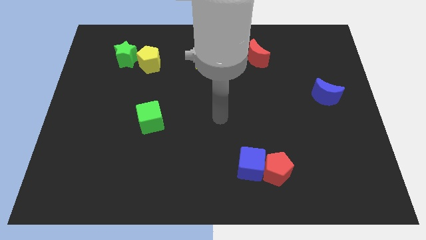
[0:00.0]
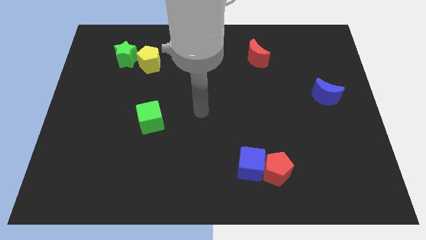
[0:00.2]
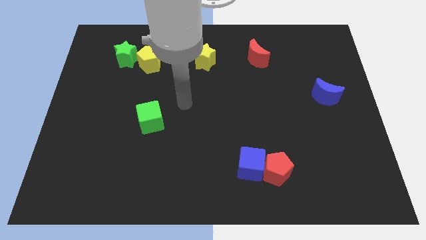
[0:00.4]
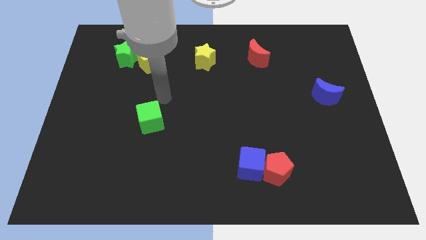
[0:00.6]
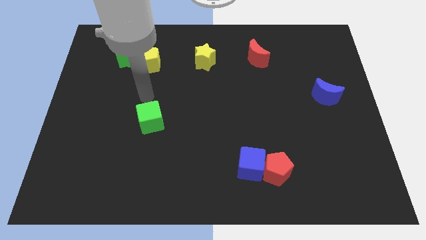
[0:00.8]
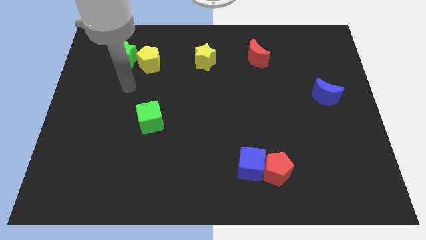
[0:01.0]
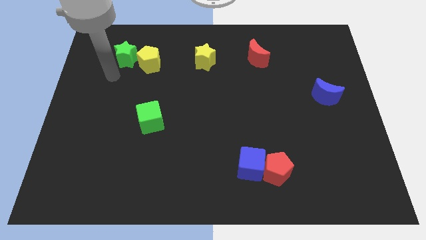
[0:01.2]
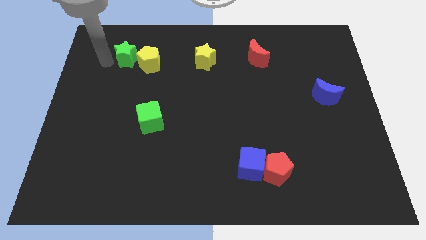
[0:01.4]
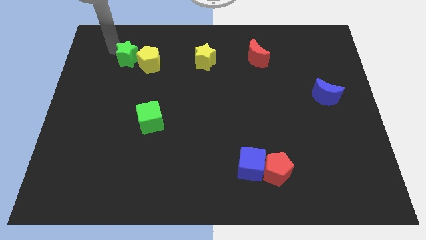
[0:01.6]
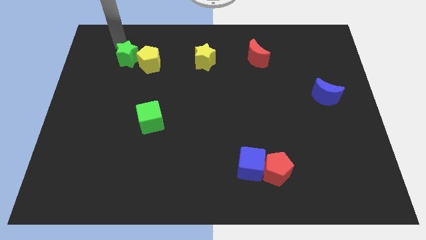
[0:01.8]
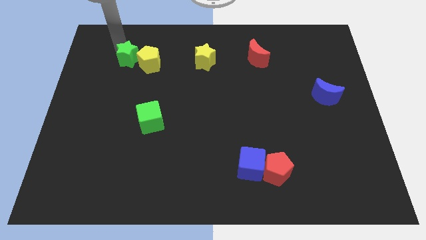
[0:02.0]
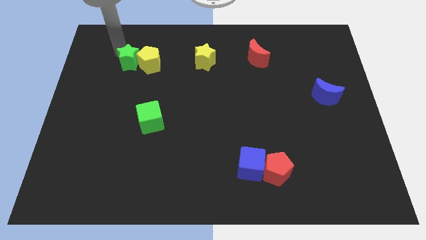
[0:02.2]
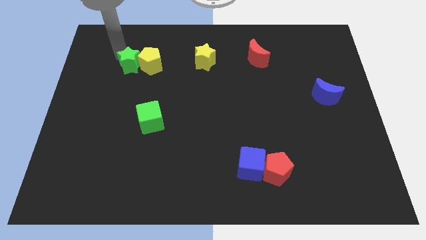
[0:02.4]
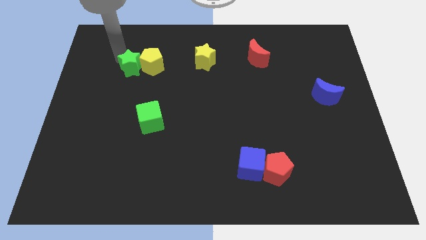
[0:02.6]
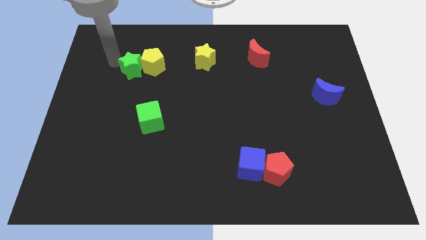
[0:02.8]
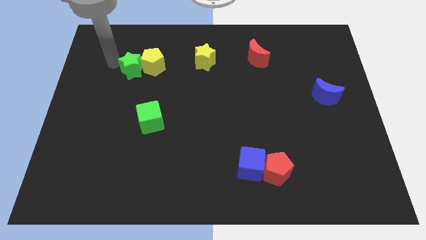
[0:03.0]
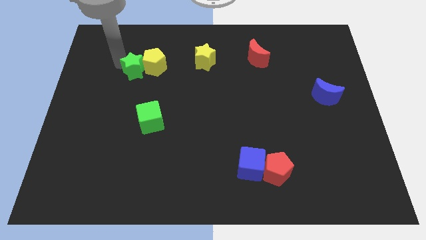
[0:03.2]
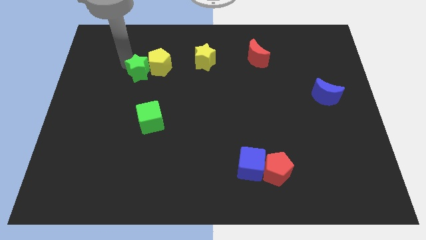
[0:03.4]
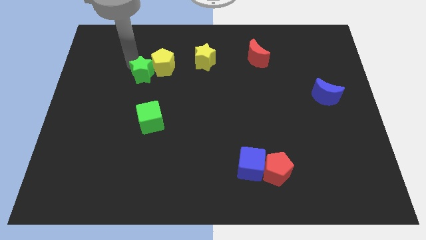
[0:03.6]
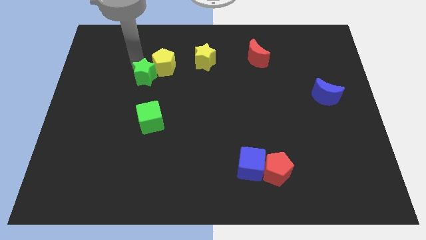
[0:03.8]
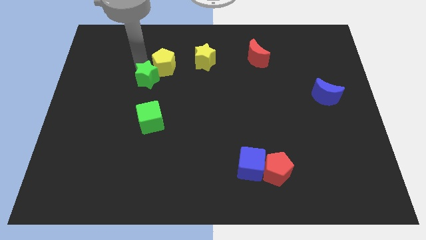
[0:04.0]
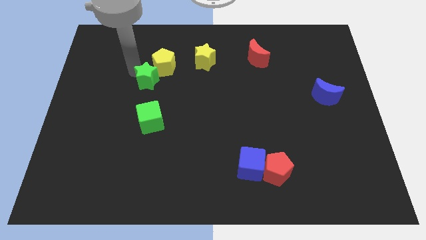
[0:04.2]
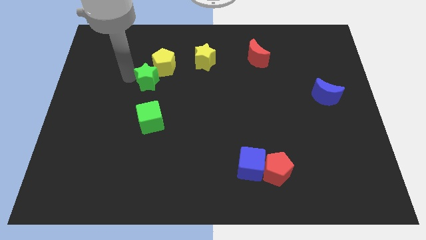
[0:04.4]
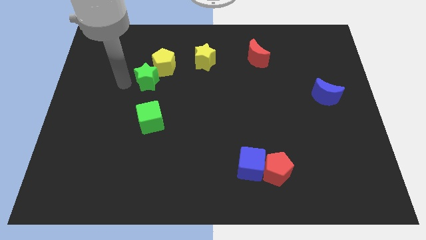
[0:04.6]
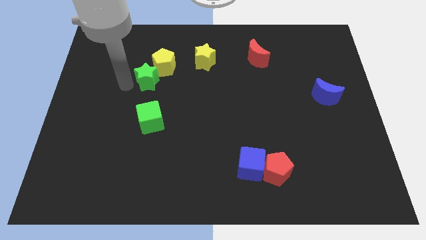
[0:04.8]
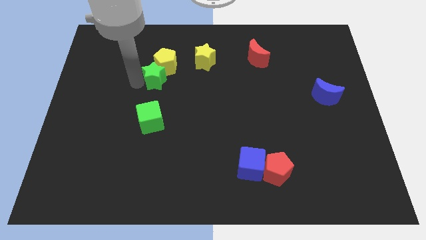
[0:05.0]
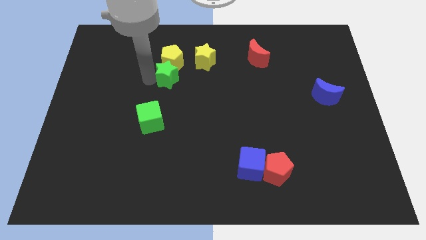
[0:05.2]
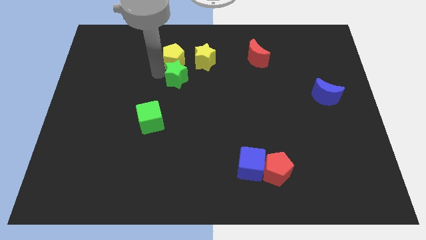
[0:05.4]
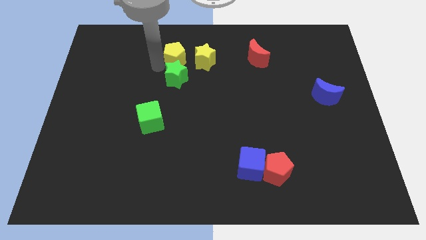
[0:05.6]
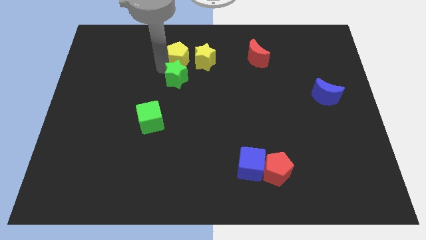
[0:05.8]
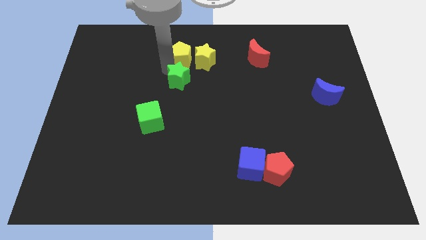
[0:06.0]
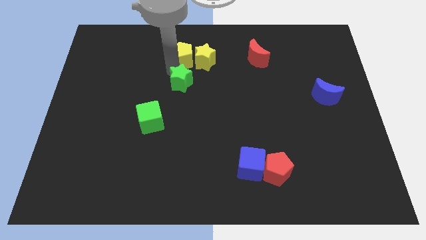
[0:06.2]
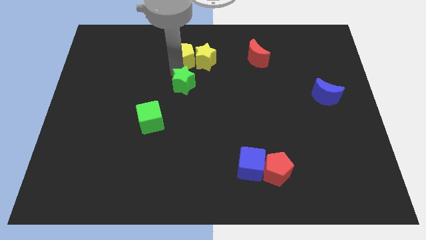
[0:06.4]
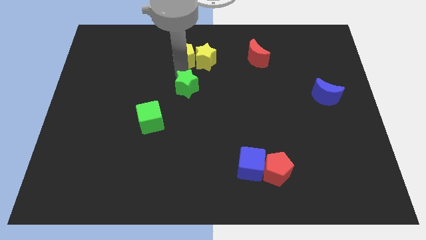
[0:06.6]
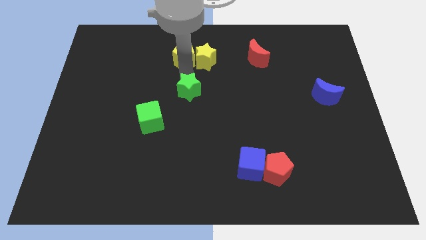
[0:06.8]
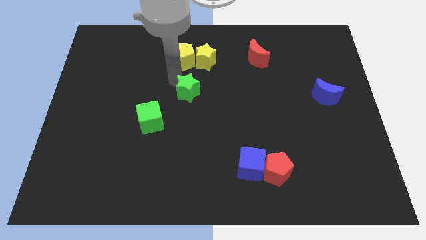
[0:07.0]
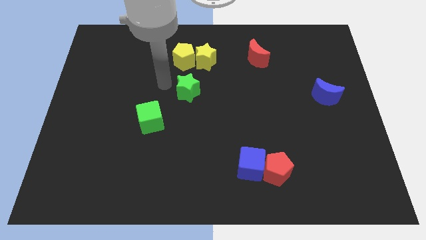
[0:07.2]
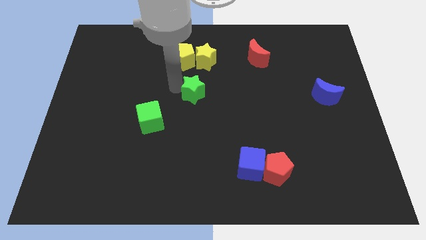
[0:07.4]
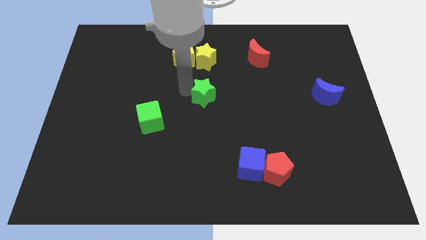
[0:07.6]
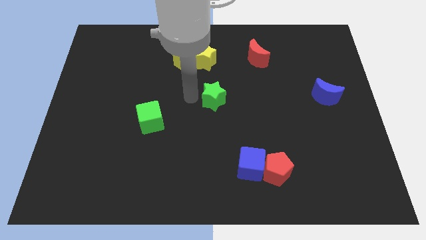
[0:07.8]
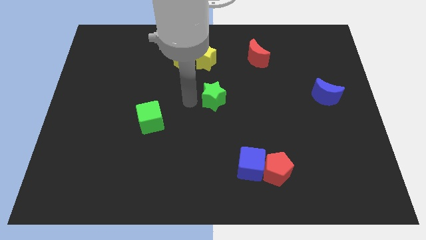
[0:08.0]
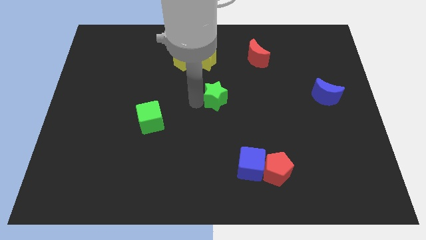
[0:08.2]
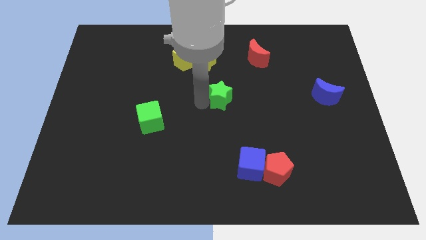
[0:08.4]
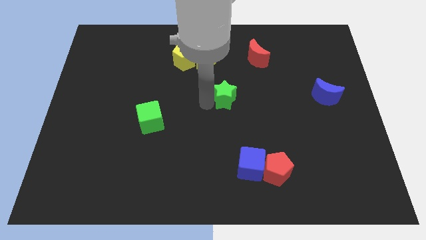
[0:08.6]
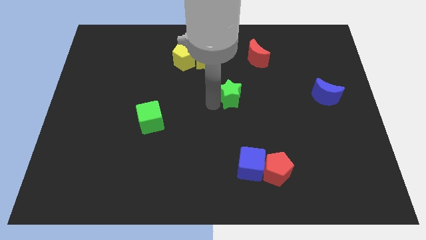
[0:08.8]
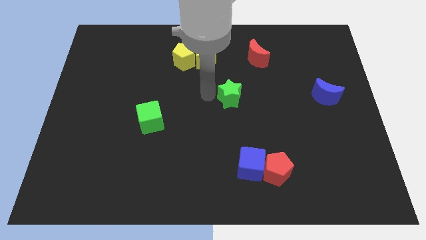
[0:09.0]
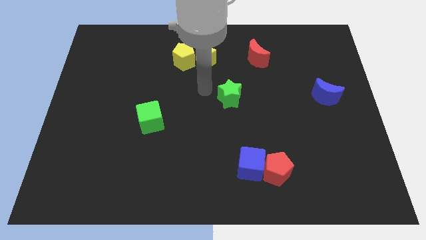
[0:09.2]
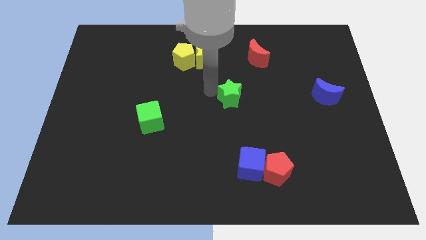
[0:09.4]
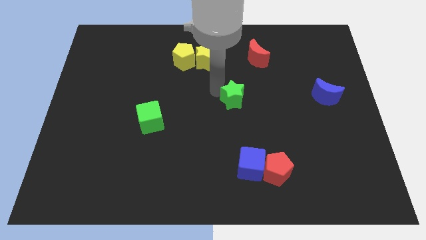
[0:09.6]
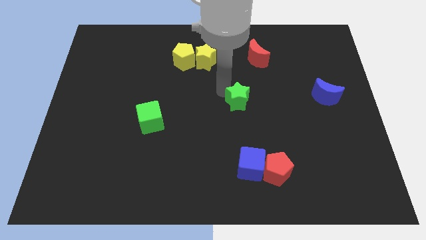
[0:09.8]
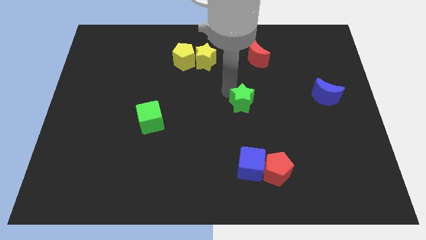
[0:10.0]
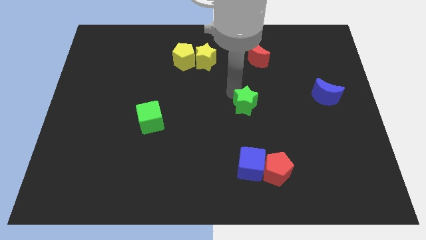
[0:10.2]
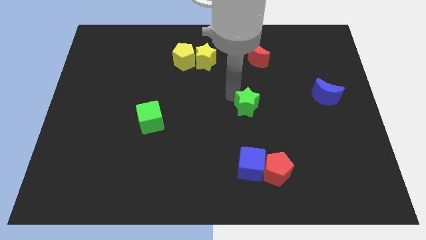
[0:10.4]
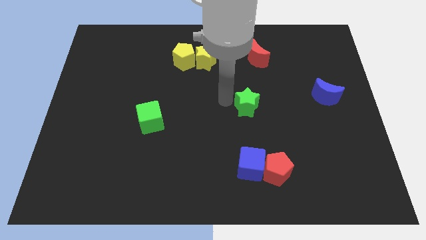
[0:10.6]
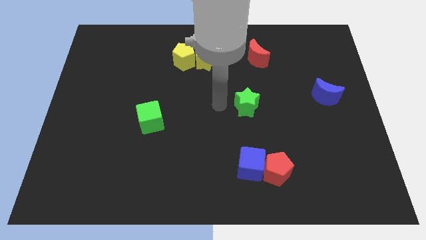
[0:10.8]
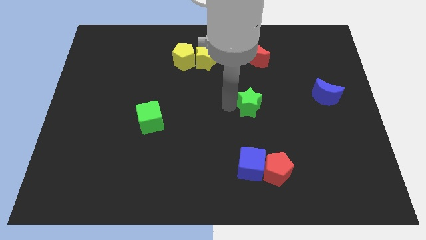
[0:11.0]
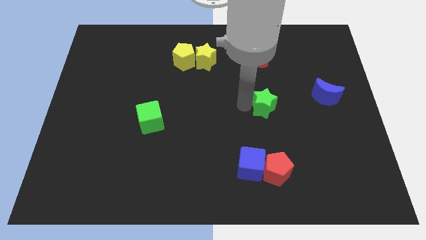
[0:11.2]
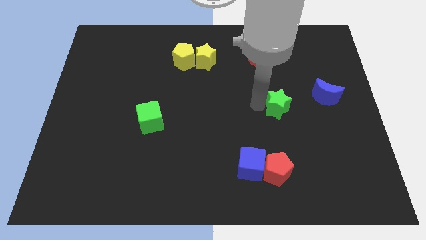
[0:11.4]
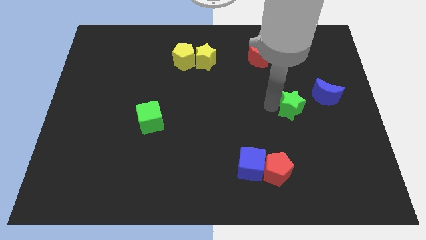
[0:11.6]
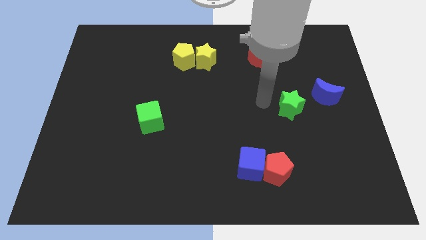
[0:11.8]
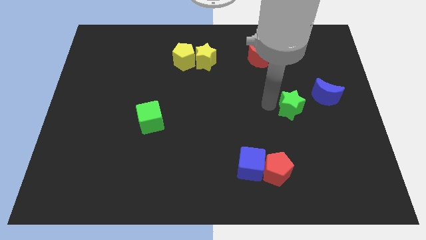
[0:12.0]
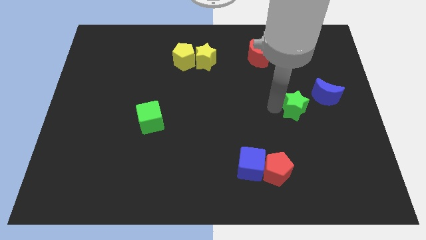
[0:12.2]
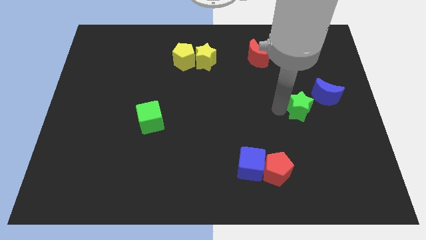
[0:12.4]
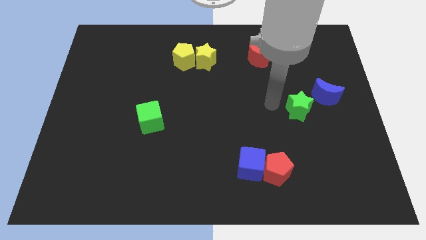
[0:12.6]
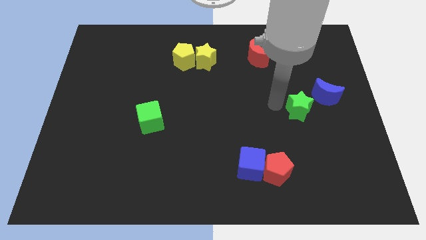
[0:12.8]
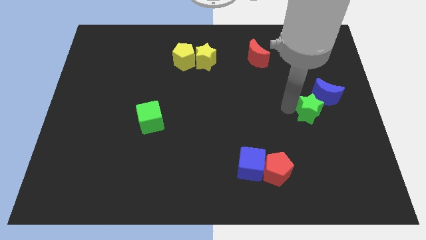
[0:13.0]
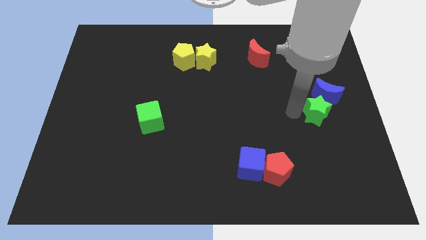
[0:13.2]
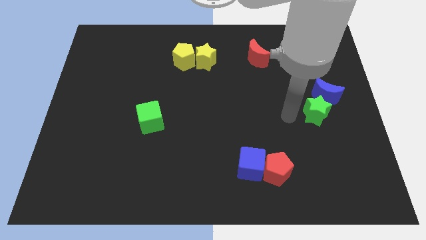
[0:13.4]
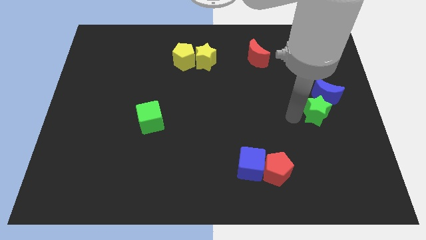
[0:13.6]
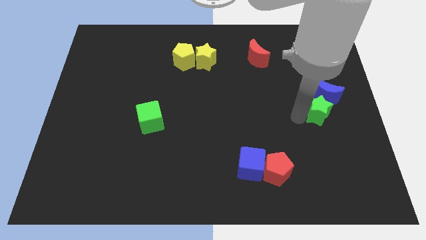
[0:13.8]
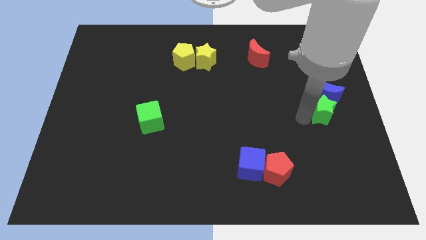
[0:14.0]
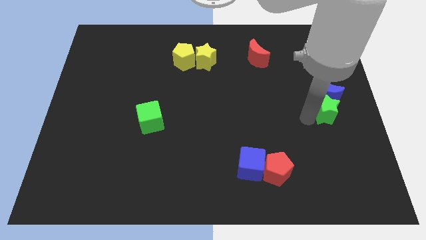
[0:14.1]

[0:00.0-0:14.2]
push the green star to the center right
